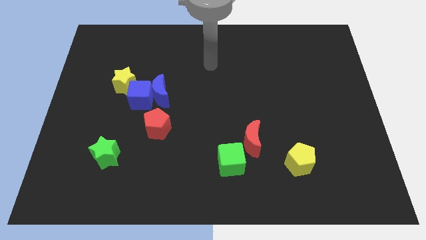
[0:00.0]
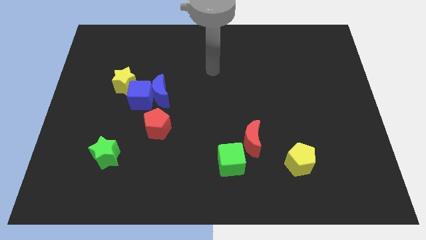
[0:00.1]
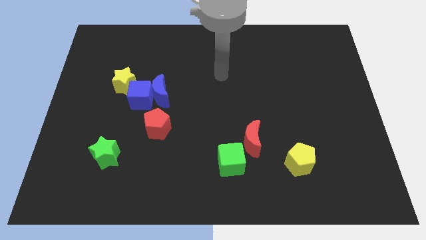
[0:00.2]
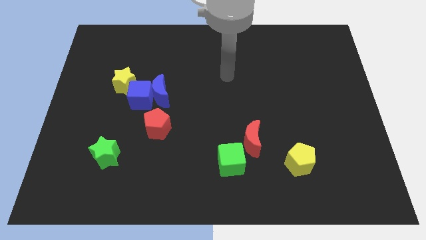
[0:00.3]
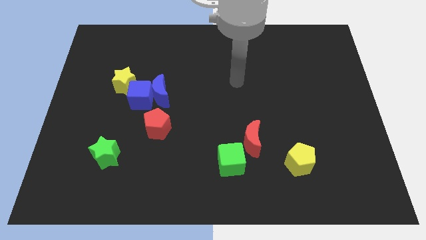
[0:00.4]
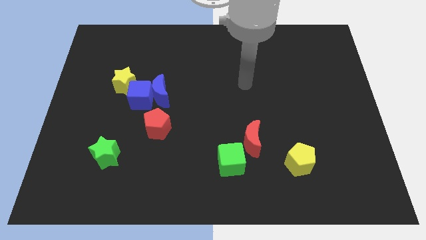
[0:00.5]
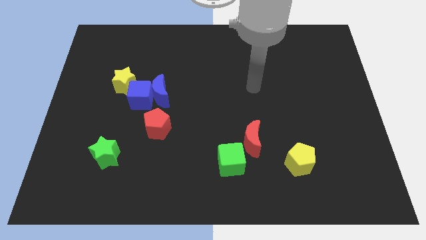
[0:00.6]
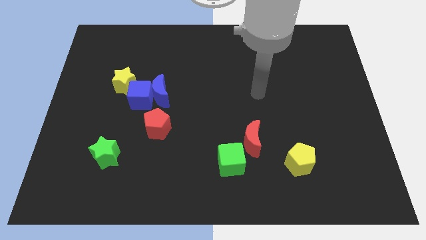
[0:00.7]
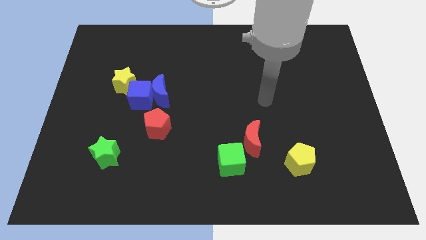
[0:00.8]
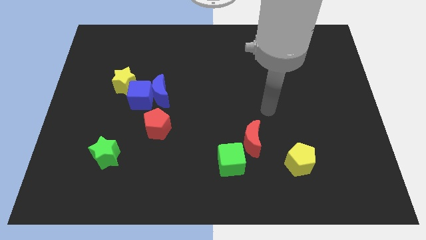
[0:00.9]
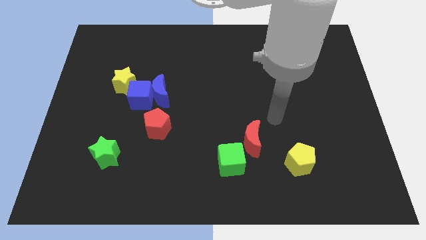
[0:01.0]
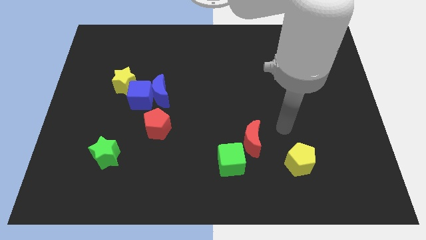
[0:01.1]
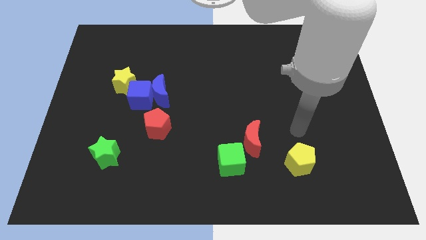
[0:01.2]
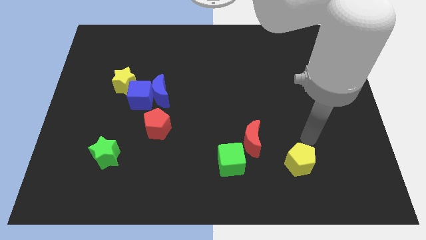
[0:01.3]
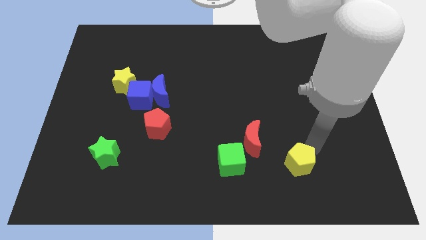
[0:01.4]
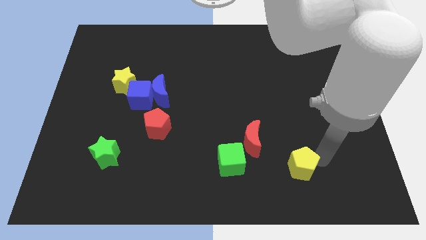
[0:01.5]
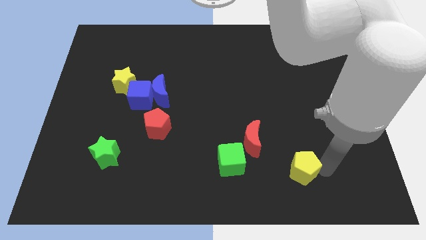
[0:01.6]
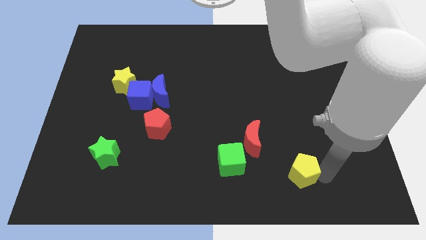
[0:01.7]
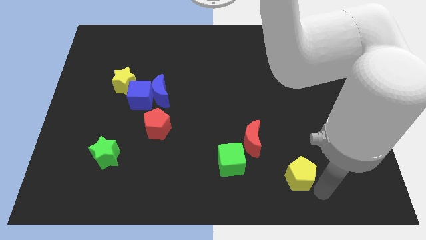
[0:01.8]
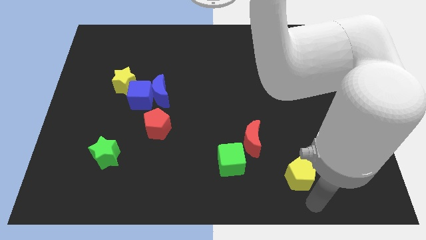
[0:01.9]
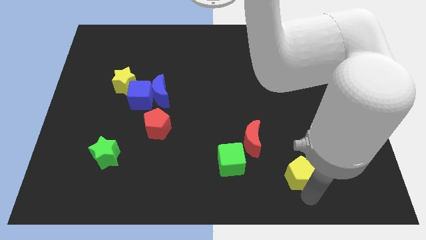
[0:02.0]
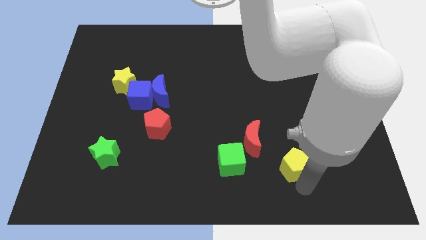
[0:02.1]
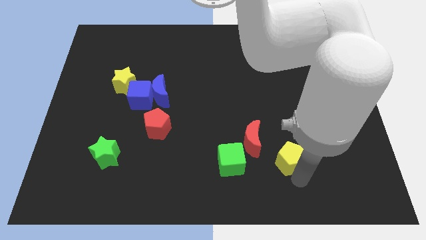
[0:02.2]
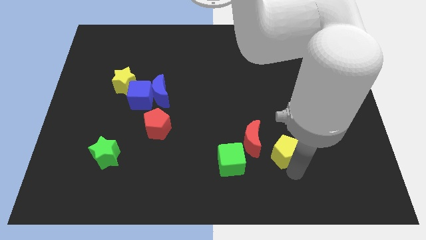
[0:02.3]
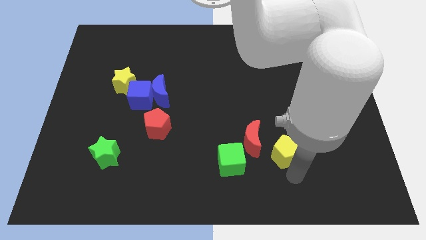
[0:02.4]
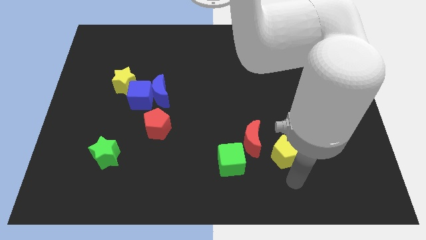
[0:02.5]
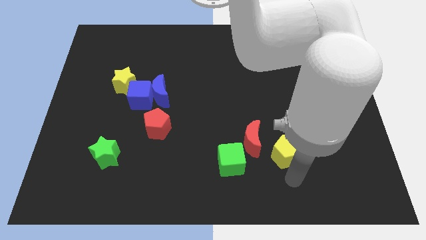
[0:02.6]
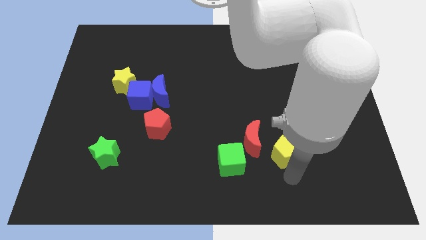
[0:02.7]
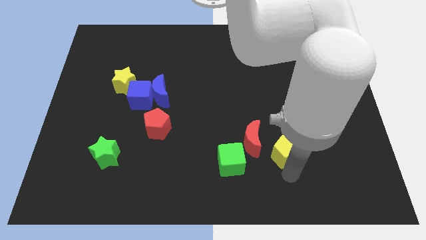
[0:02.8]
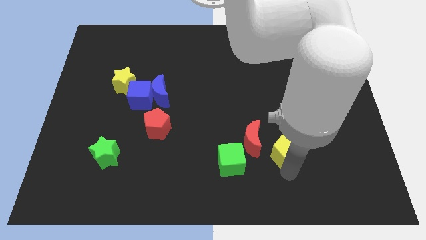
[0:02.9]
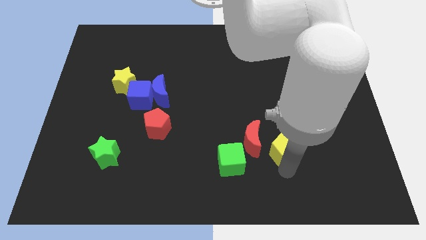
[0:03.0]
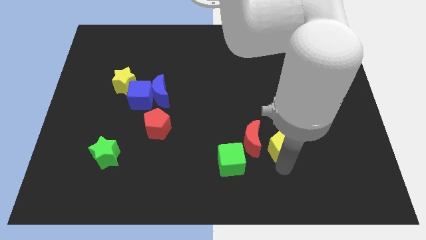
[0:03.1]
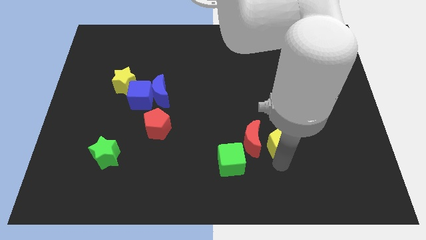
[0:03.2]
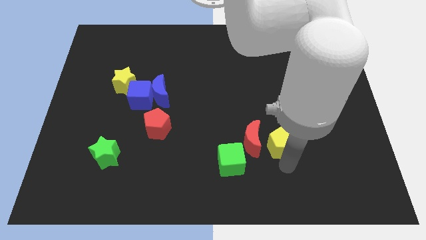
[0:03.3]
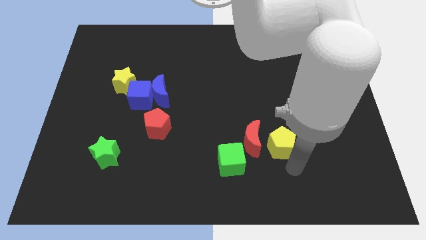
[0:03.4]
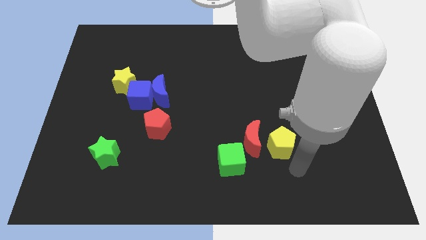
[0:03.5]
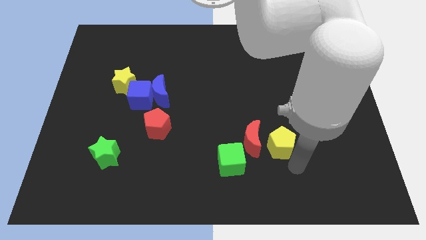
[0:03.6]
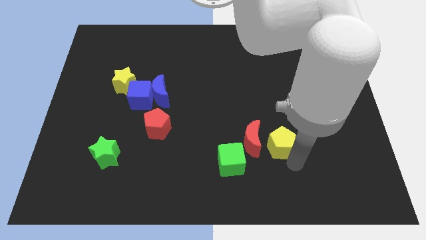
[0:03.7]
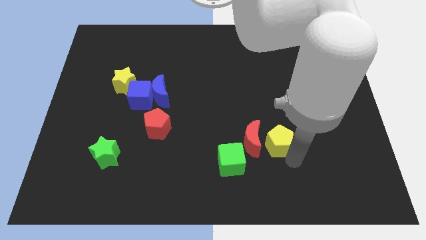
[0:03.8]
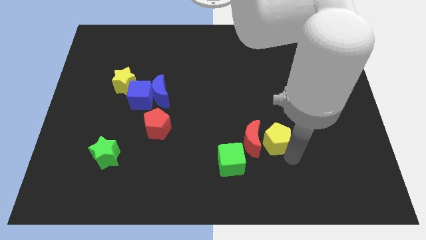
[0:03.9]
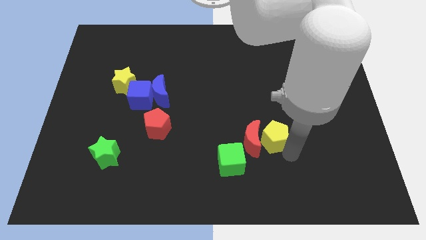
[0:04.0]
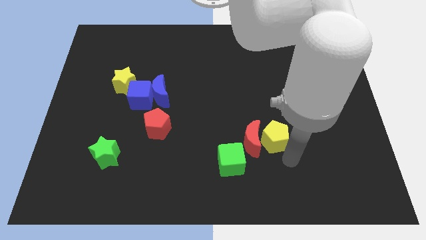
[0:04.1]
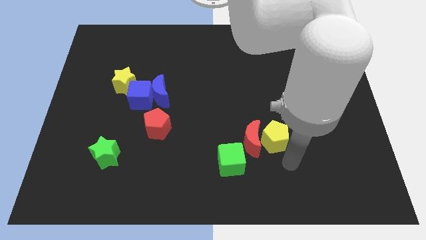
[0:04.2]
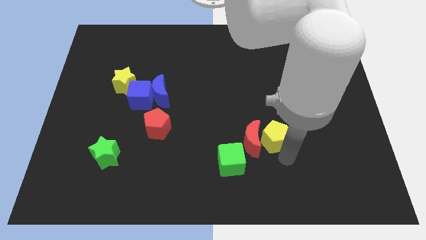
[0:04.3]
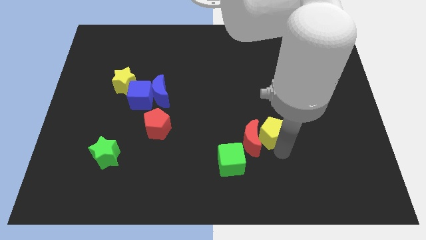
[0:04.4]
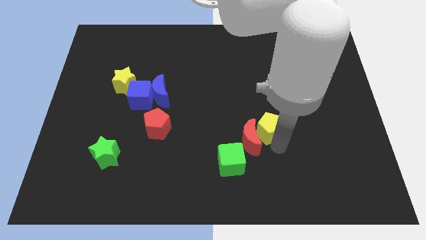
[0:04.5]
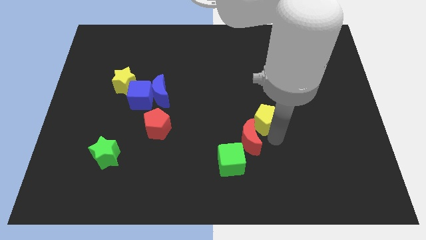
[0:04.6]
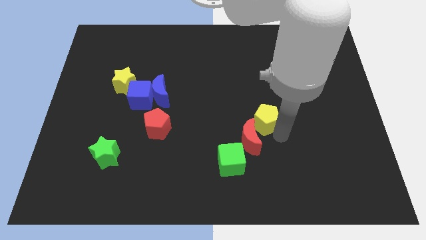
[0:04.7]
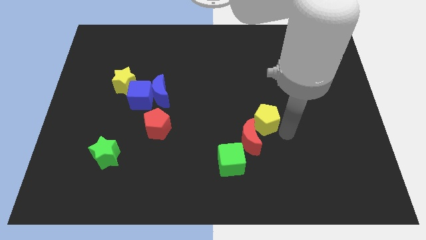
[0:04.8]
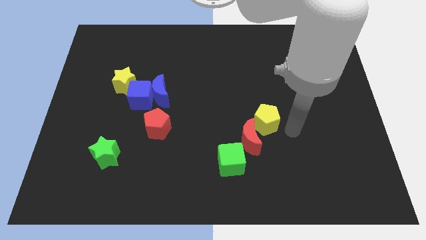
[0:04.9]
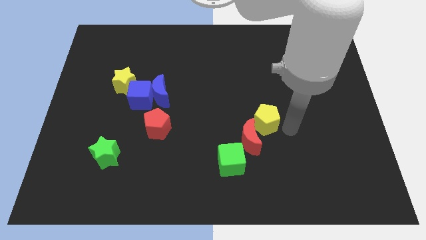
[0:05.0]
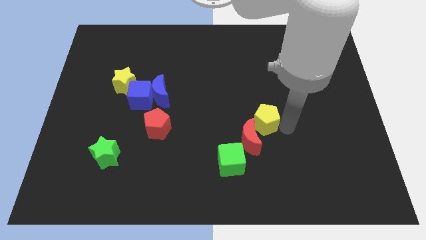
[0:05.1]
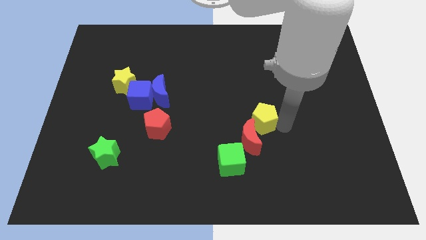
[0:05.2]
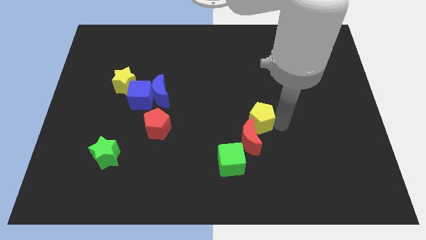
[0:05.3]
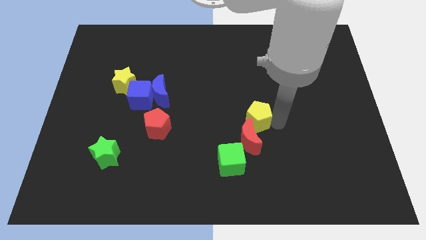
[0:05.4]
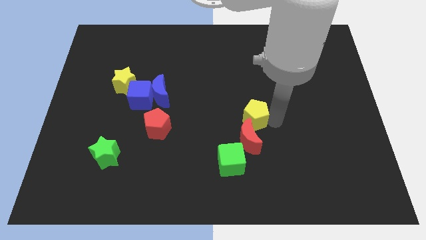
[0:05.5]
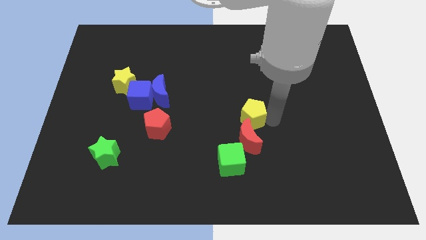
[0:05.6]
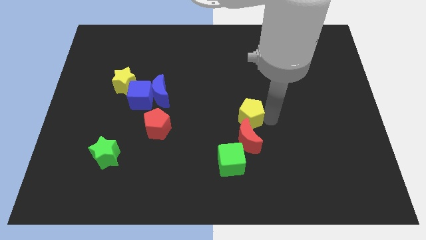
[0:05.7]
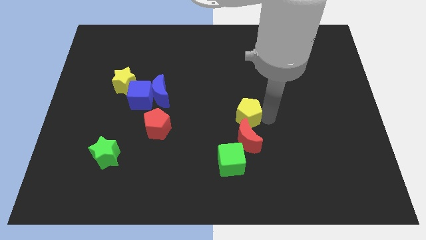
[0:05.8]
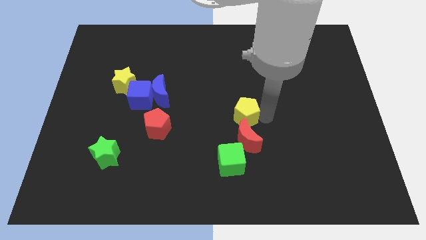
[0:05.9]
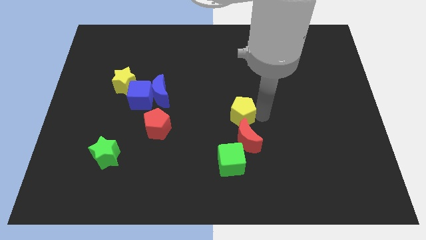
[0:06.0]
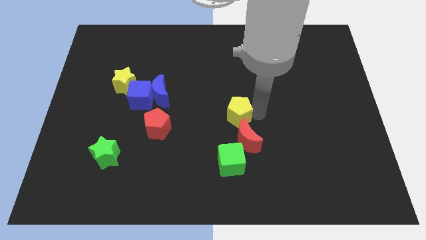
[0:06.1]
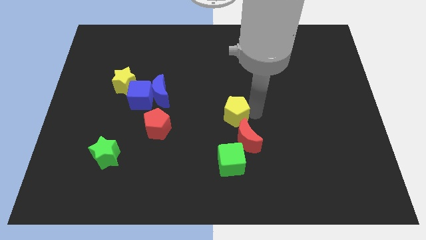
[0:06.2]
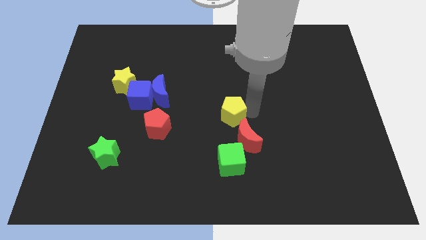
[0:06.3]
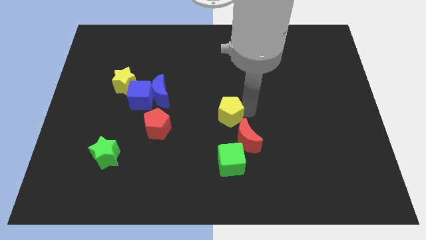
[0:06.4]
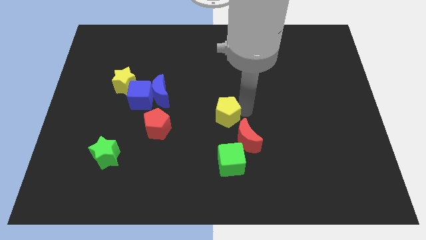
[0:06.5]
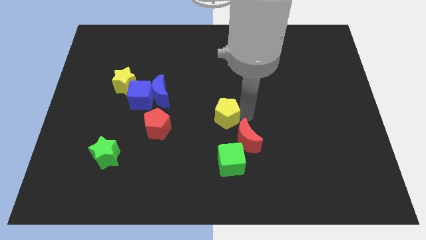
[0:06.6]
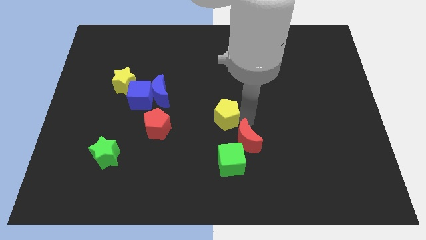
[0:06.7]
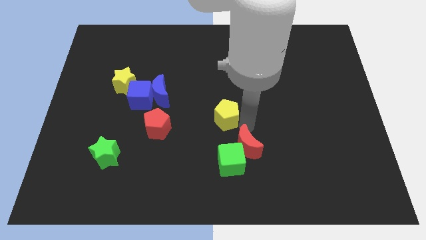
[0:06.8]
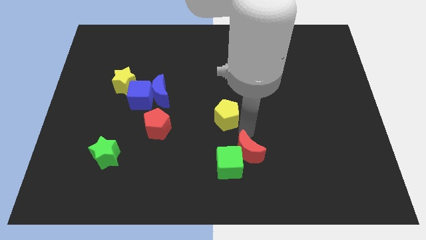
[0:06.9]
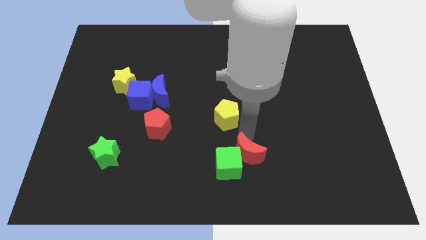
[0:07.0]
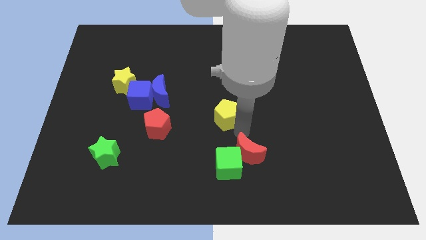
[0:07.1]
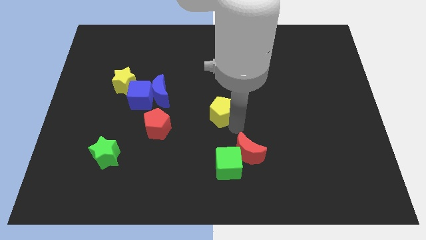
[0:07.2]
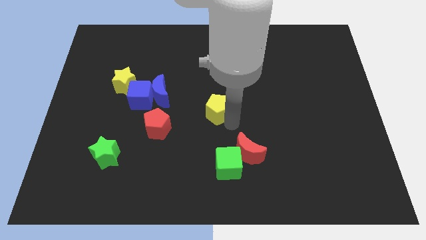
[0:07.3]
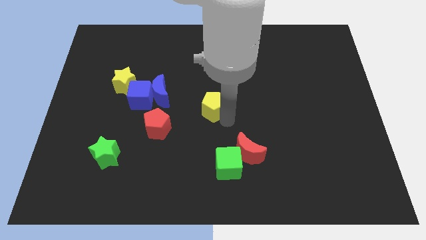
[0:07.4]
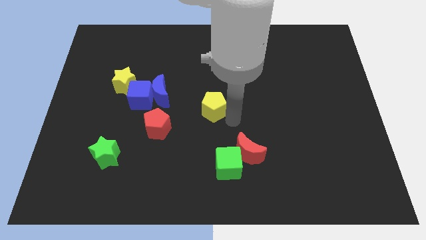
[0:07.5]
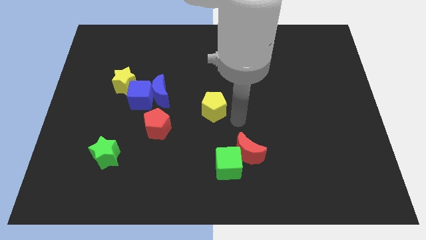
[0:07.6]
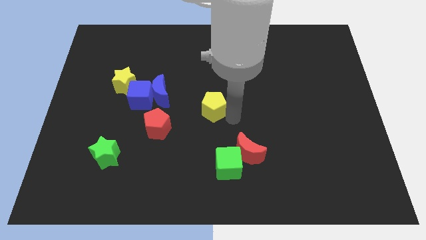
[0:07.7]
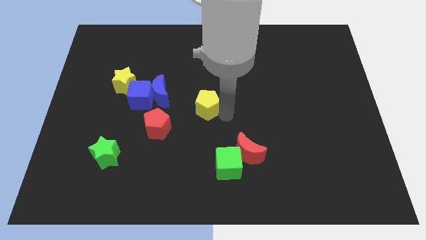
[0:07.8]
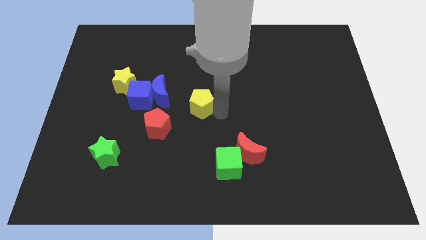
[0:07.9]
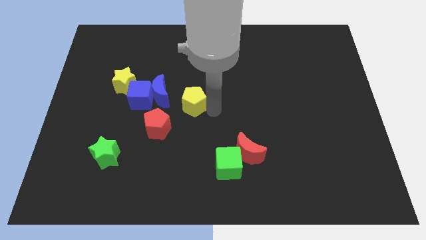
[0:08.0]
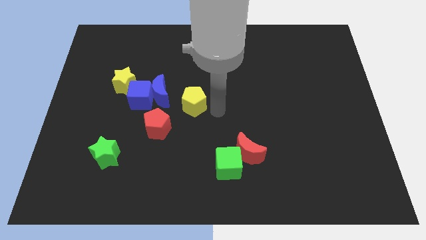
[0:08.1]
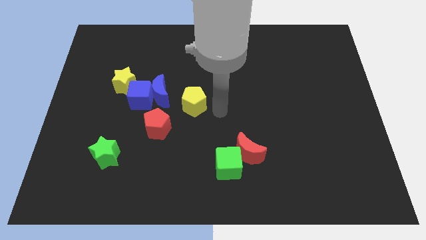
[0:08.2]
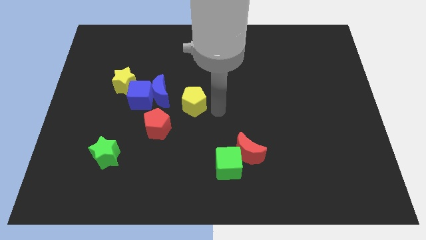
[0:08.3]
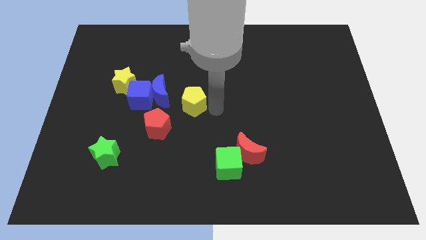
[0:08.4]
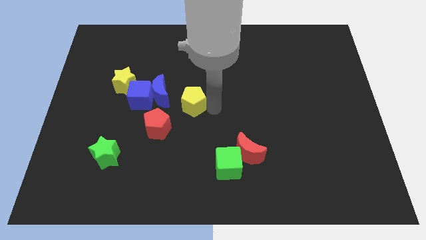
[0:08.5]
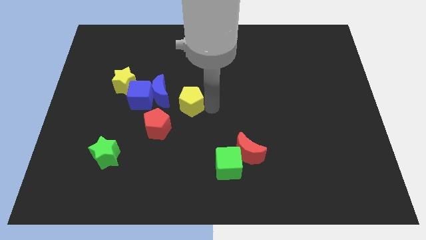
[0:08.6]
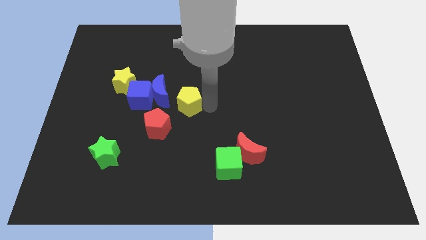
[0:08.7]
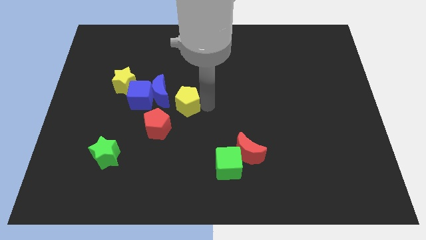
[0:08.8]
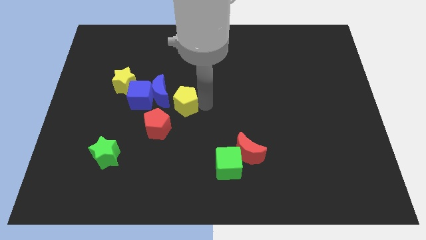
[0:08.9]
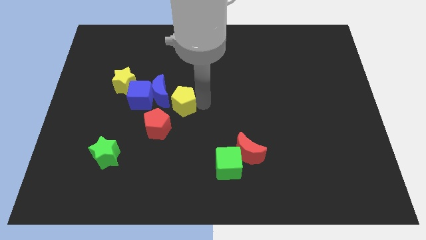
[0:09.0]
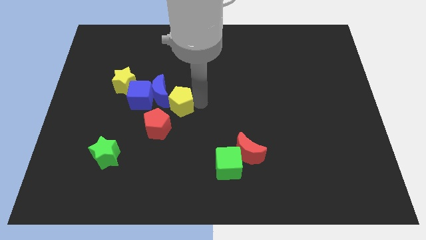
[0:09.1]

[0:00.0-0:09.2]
move the yellow pentagon to the blue moon
